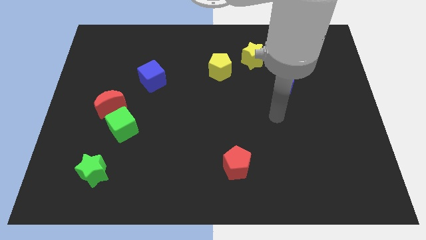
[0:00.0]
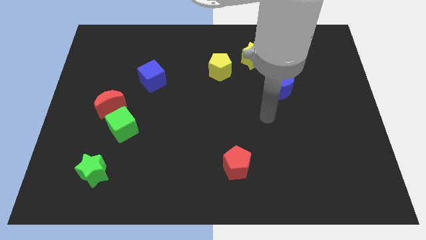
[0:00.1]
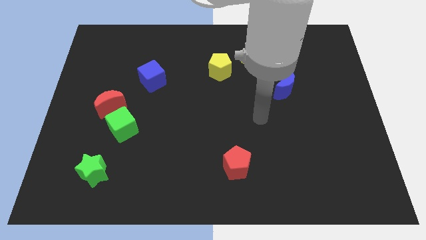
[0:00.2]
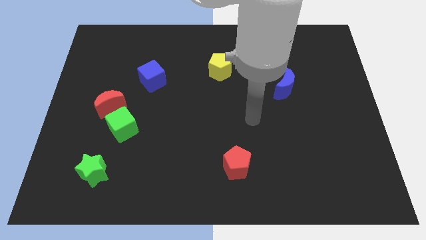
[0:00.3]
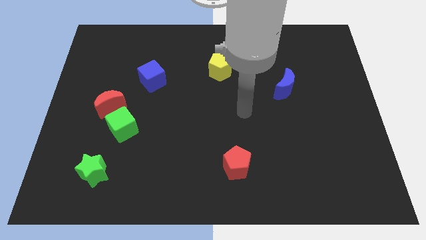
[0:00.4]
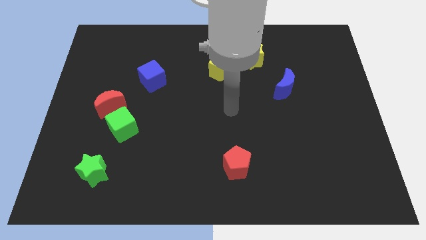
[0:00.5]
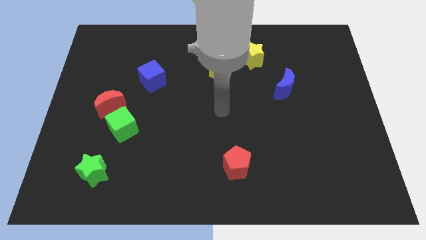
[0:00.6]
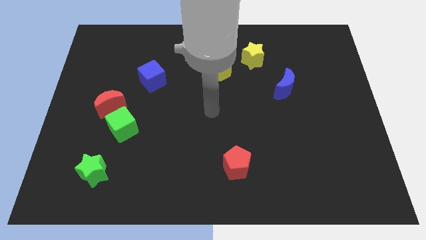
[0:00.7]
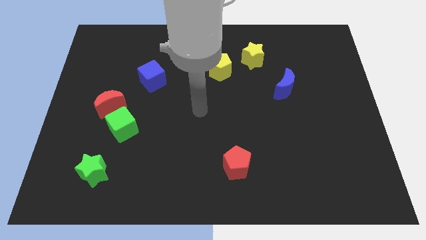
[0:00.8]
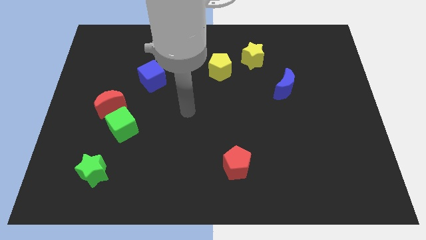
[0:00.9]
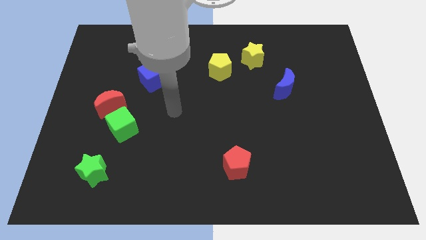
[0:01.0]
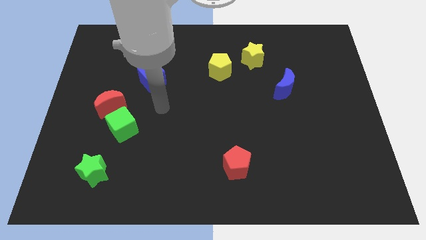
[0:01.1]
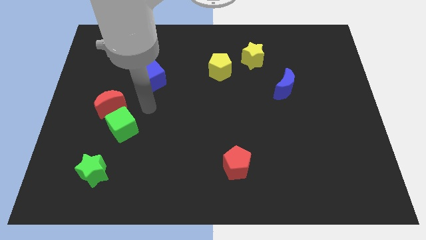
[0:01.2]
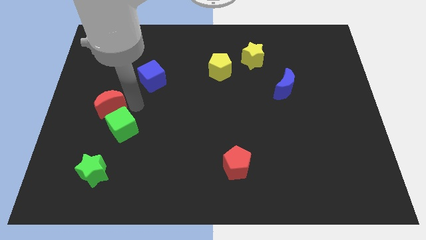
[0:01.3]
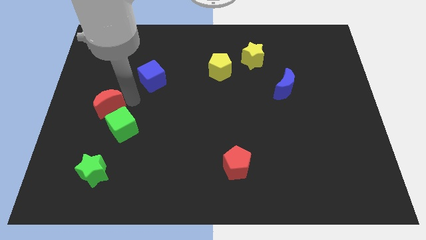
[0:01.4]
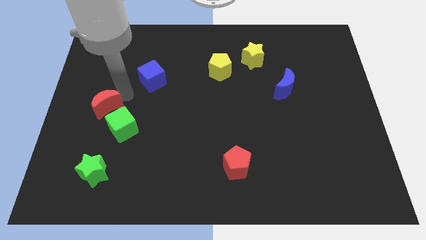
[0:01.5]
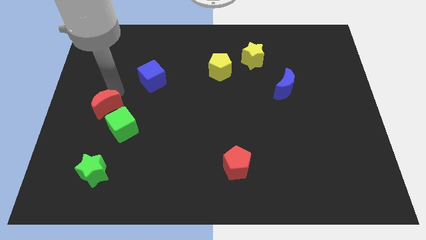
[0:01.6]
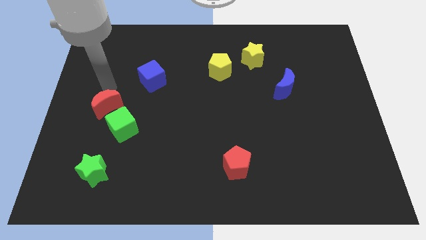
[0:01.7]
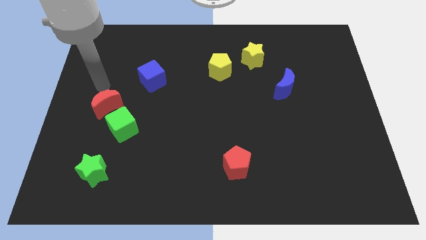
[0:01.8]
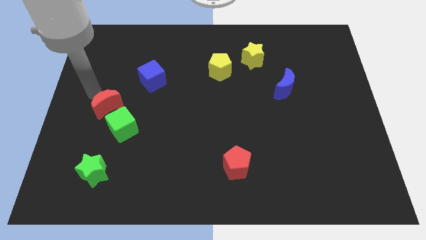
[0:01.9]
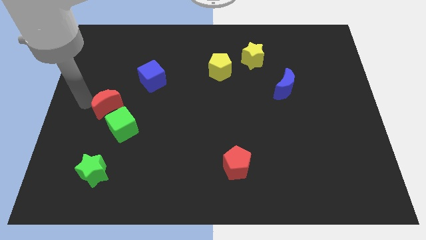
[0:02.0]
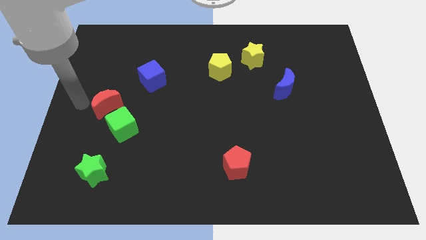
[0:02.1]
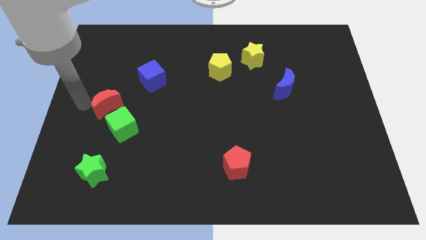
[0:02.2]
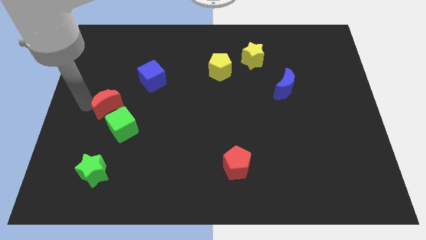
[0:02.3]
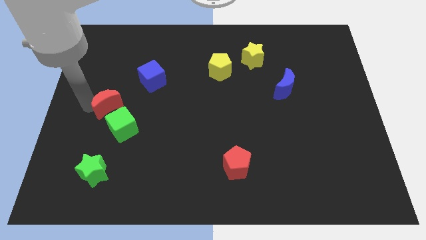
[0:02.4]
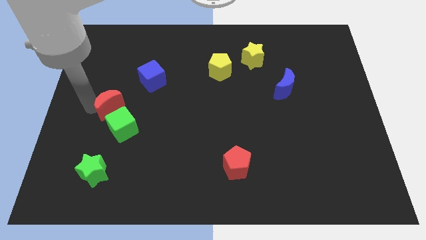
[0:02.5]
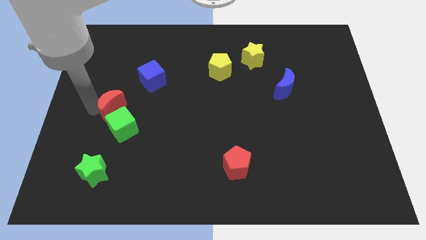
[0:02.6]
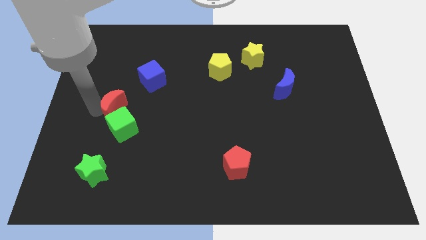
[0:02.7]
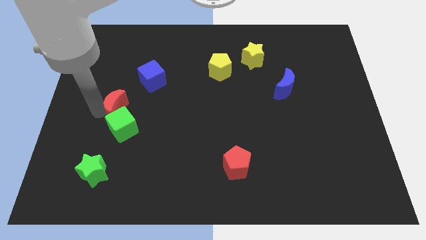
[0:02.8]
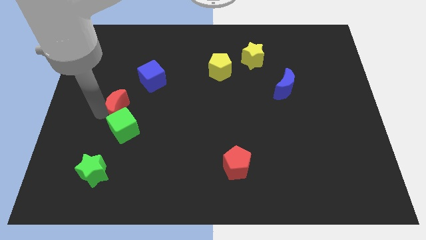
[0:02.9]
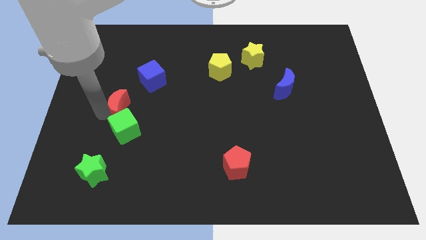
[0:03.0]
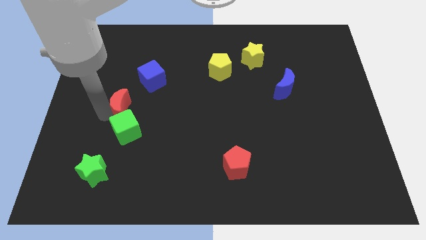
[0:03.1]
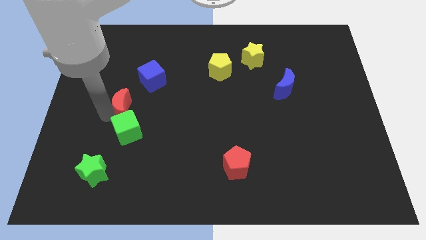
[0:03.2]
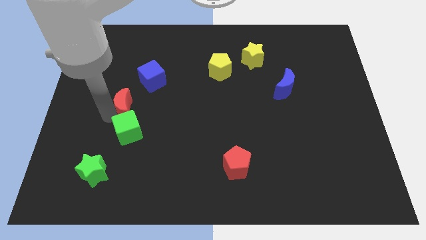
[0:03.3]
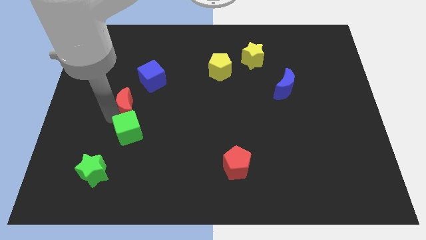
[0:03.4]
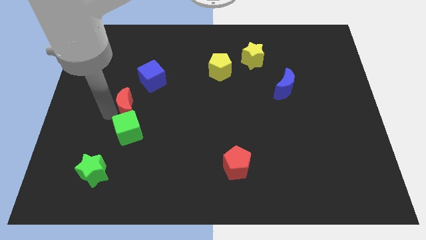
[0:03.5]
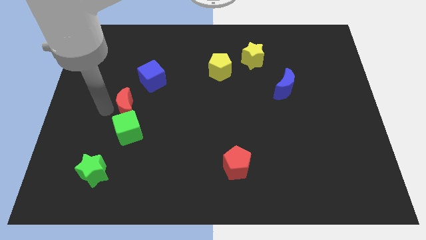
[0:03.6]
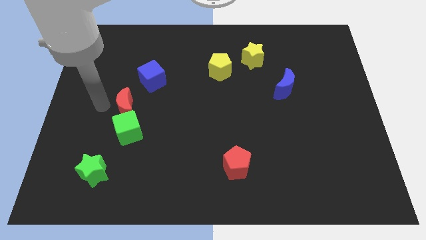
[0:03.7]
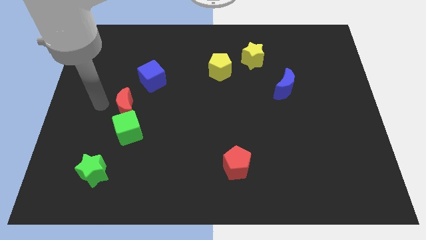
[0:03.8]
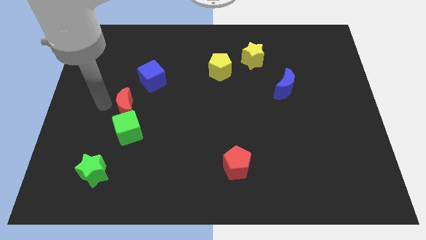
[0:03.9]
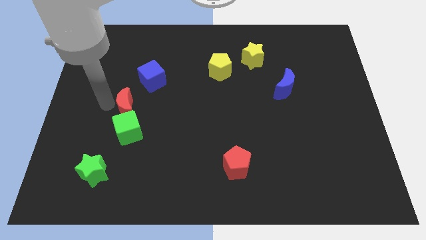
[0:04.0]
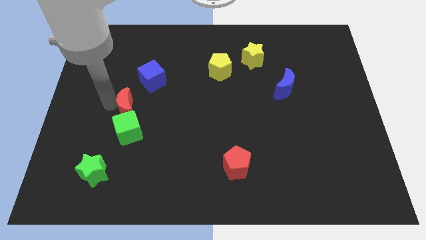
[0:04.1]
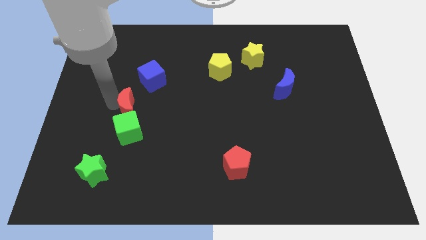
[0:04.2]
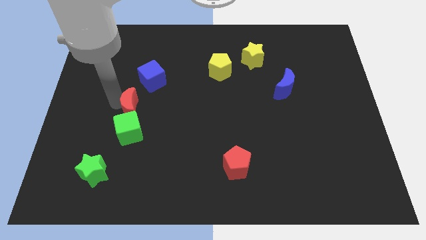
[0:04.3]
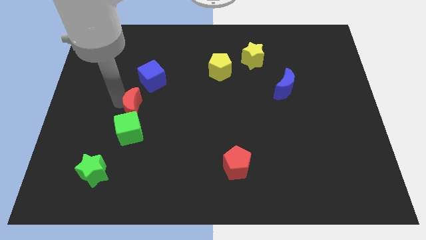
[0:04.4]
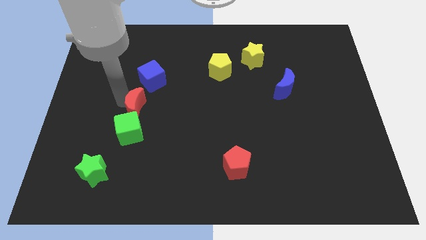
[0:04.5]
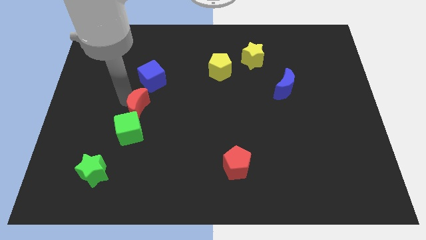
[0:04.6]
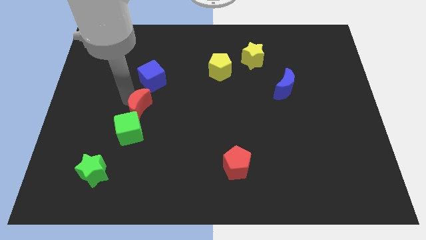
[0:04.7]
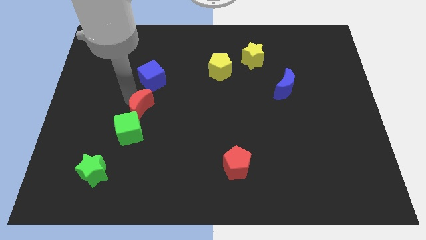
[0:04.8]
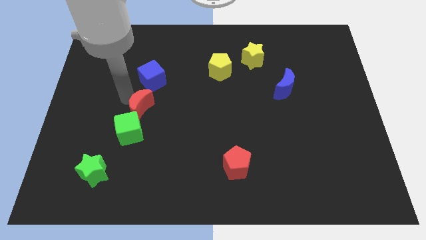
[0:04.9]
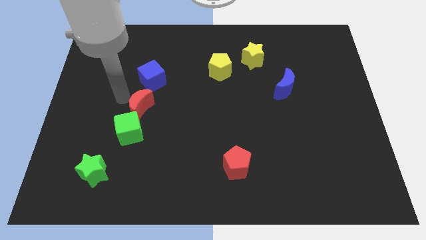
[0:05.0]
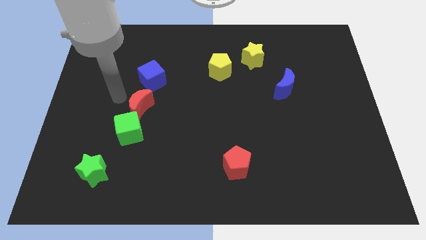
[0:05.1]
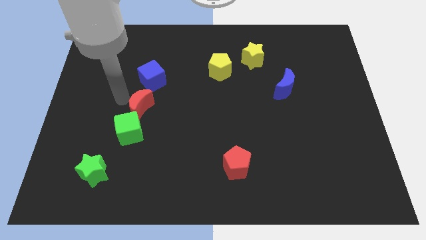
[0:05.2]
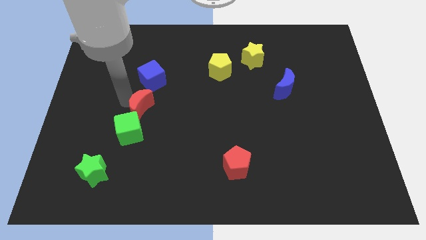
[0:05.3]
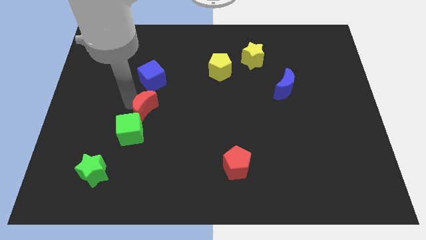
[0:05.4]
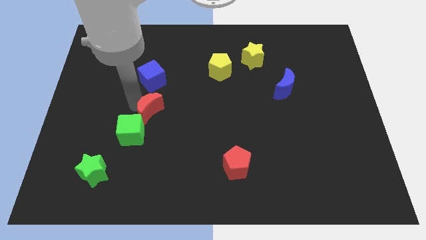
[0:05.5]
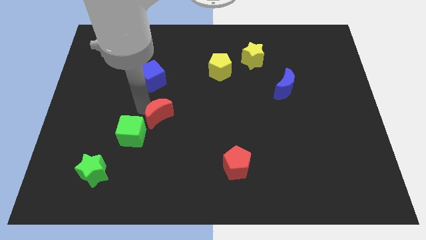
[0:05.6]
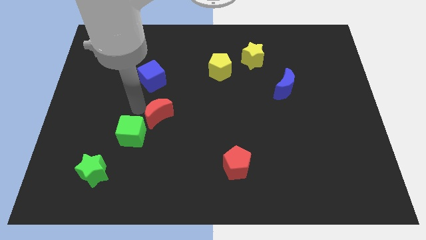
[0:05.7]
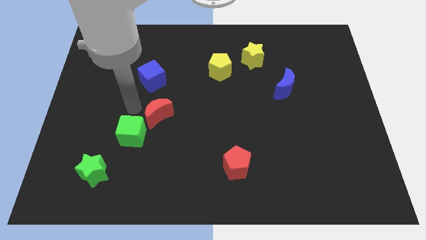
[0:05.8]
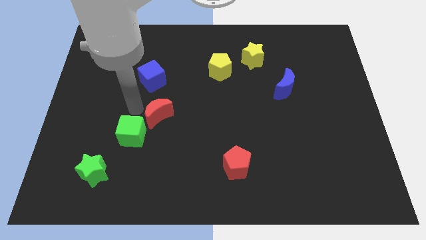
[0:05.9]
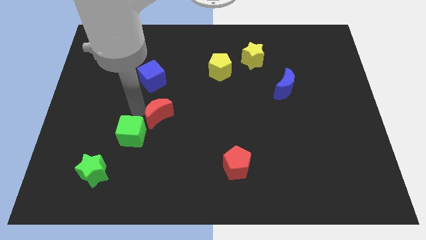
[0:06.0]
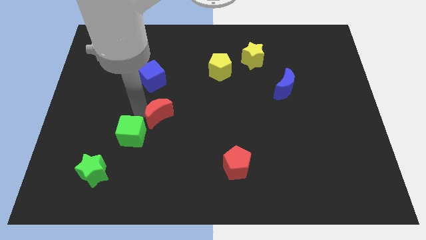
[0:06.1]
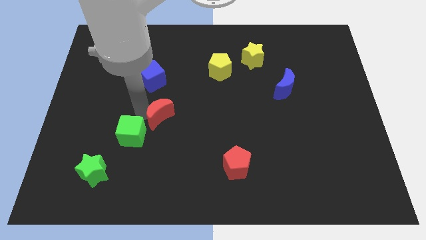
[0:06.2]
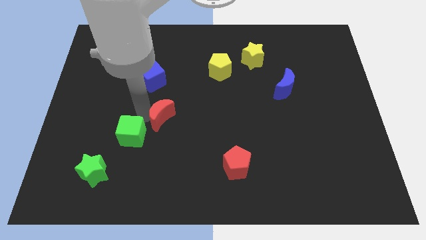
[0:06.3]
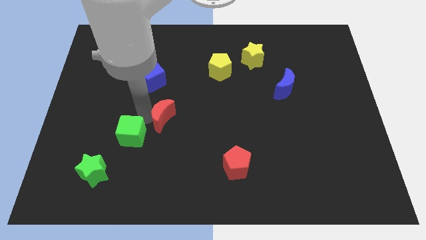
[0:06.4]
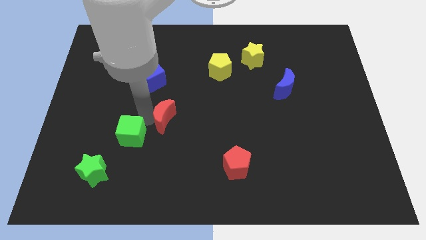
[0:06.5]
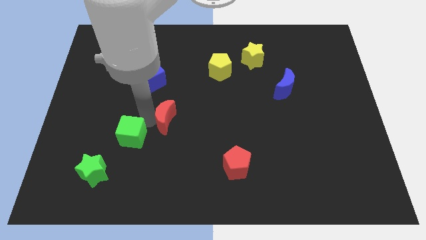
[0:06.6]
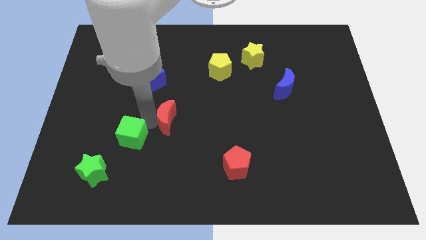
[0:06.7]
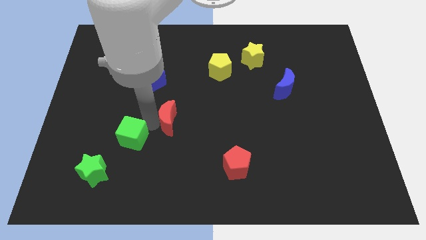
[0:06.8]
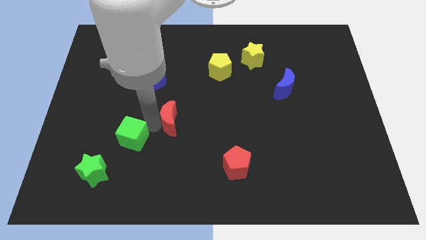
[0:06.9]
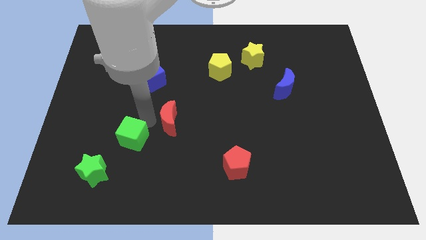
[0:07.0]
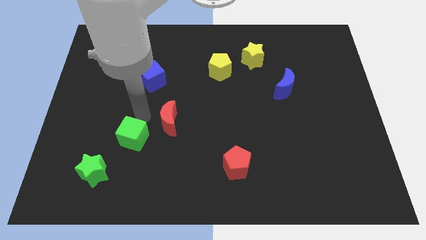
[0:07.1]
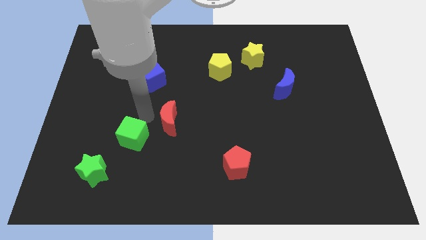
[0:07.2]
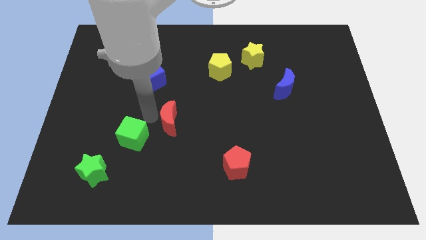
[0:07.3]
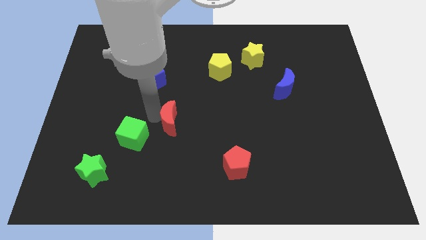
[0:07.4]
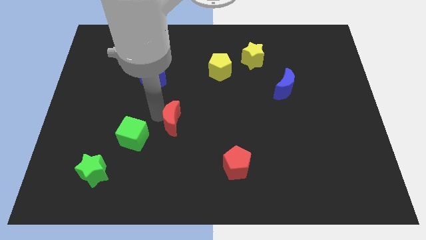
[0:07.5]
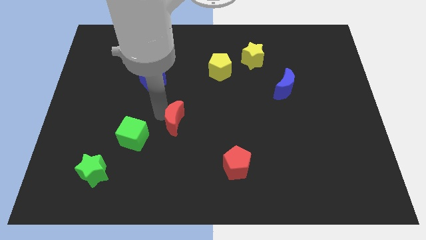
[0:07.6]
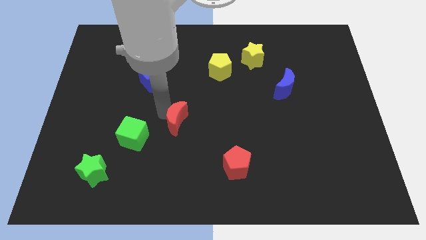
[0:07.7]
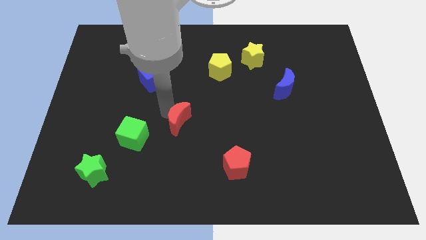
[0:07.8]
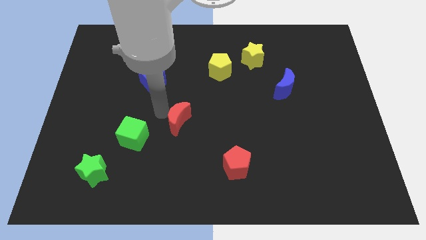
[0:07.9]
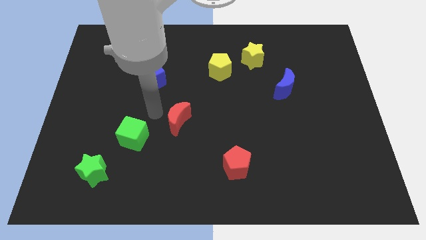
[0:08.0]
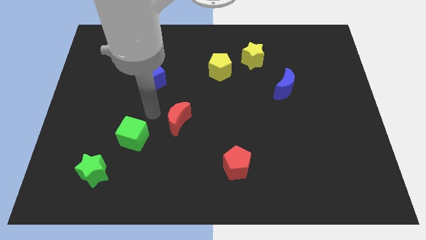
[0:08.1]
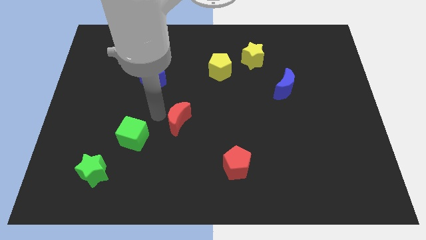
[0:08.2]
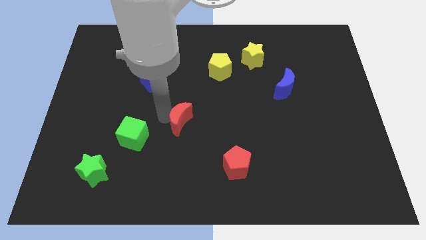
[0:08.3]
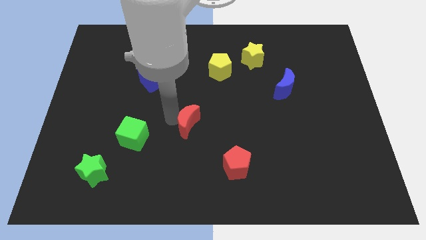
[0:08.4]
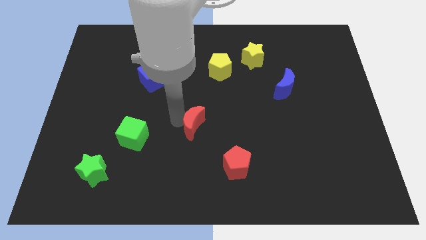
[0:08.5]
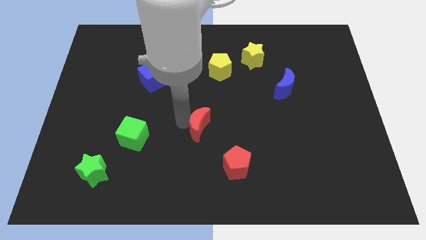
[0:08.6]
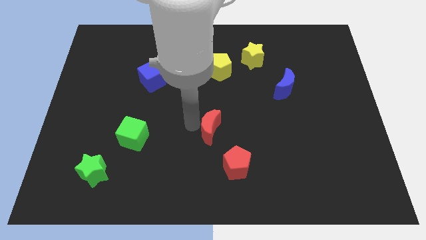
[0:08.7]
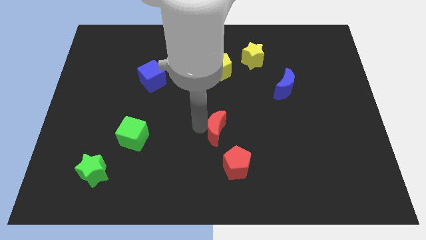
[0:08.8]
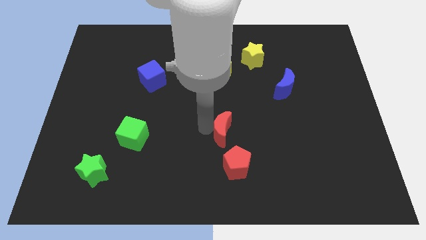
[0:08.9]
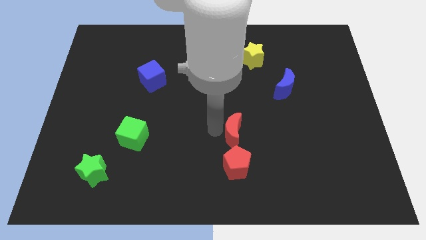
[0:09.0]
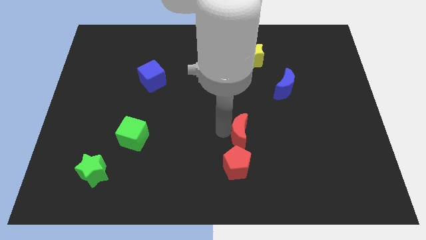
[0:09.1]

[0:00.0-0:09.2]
put the red moon diagonally up and to the right of the red pentagon
